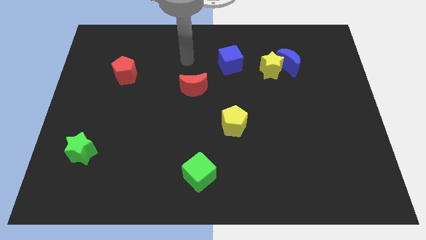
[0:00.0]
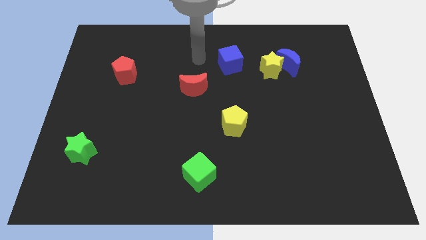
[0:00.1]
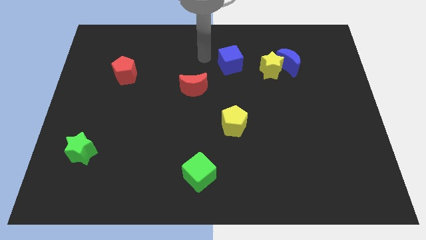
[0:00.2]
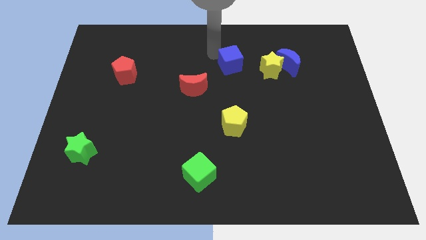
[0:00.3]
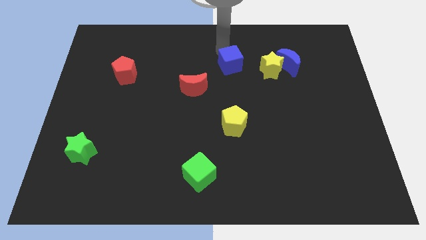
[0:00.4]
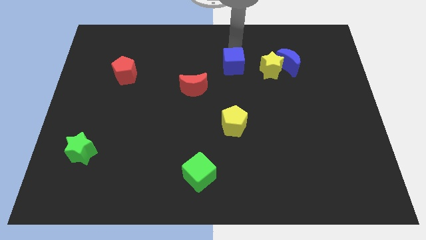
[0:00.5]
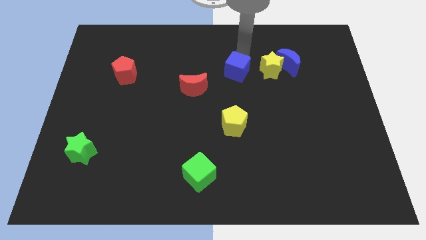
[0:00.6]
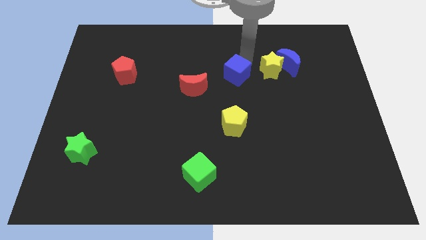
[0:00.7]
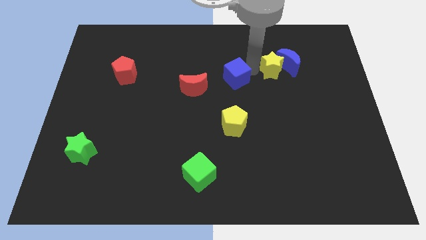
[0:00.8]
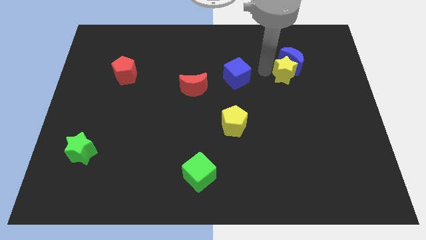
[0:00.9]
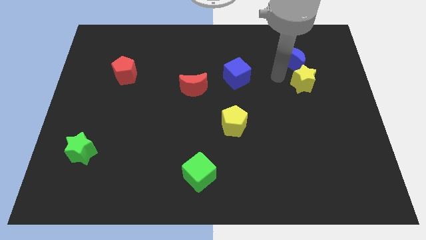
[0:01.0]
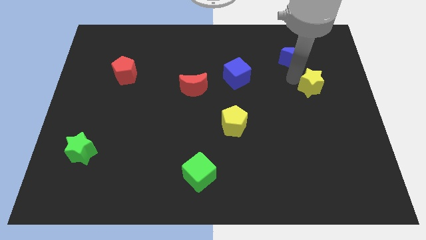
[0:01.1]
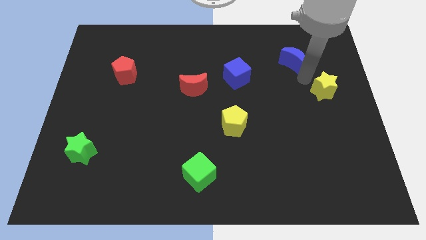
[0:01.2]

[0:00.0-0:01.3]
separate the blue moon from the yellow star

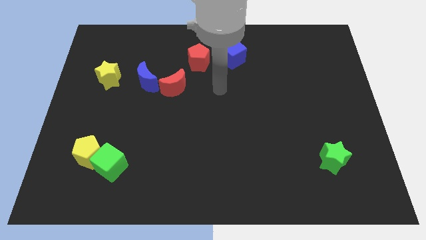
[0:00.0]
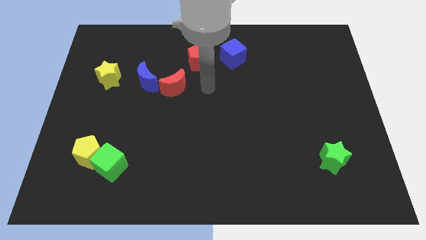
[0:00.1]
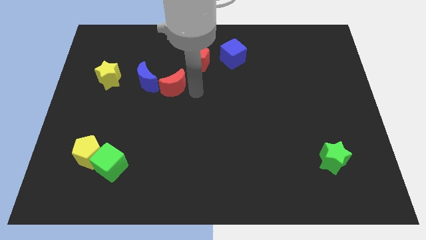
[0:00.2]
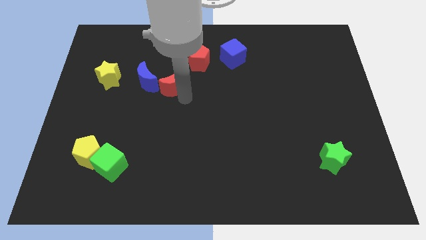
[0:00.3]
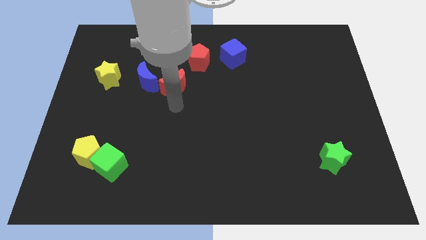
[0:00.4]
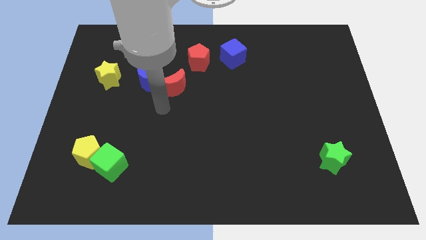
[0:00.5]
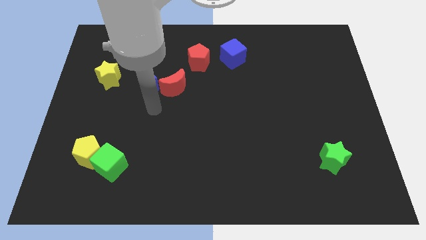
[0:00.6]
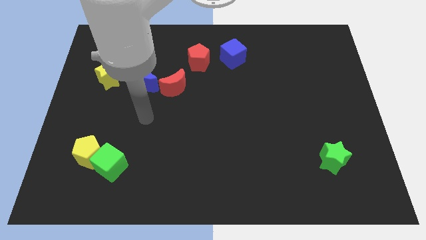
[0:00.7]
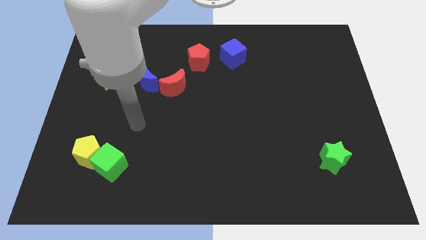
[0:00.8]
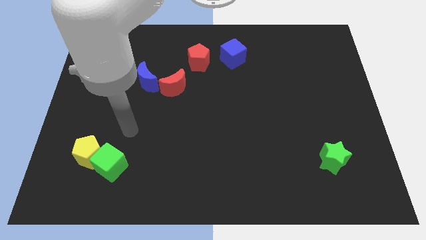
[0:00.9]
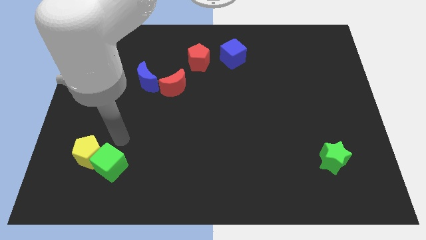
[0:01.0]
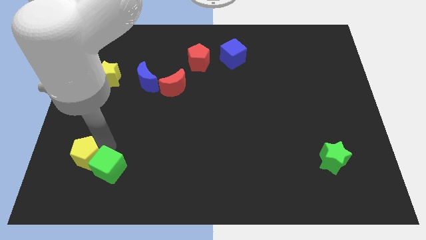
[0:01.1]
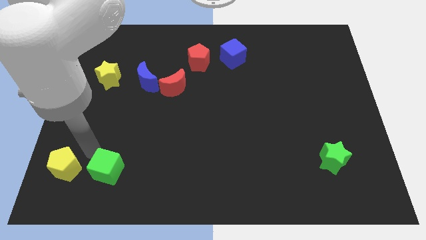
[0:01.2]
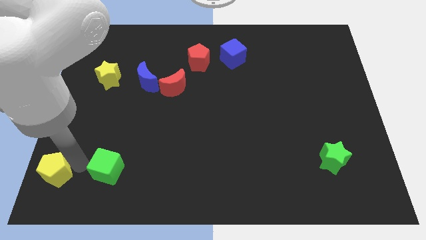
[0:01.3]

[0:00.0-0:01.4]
separate the green cube from the yellow pentagon

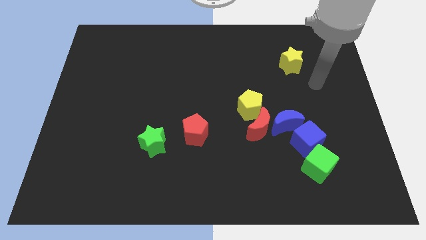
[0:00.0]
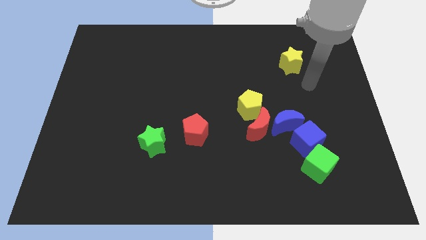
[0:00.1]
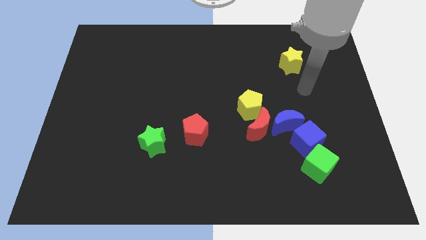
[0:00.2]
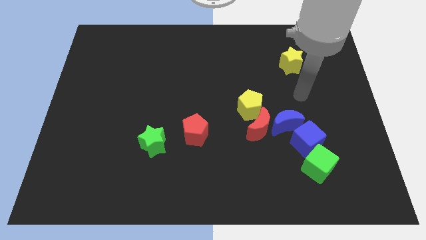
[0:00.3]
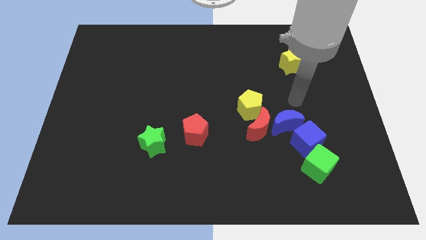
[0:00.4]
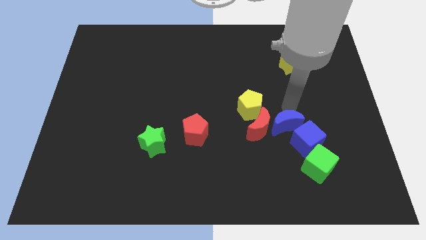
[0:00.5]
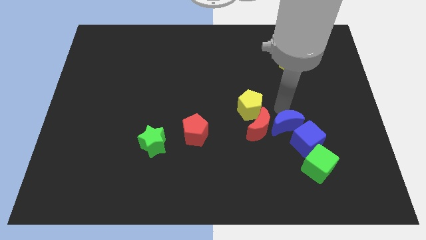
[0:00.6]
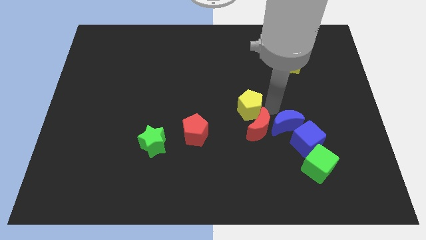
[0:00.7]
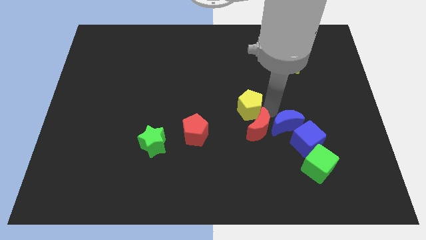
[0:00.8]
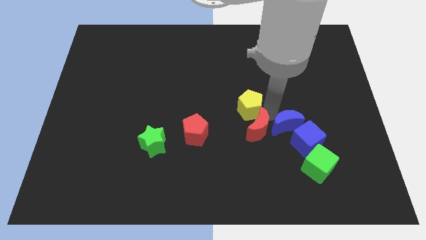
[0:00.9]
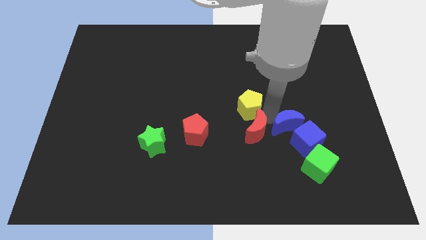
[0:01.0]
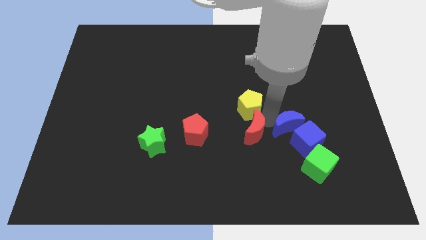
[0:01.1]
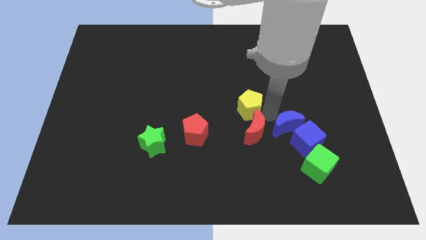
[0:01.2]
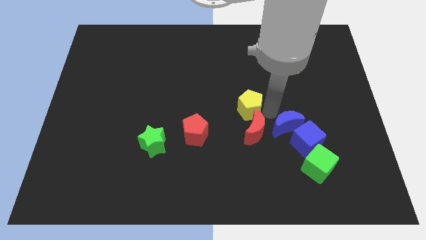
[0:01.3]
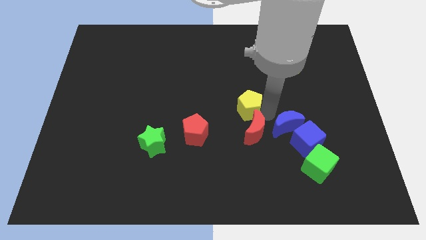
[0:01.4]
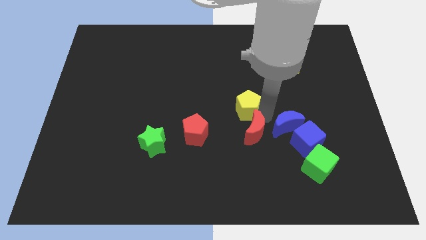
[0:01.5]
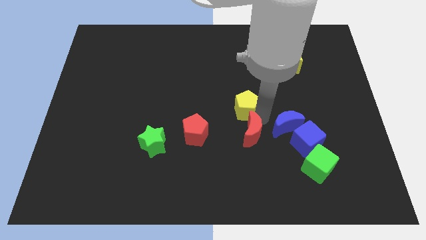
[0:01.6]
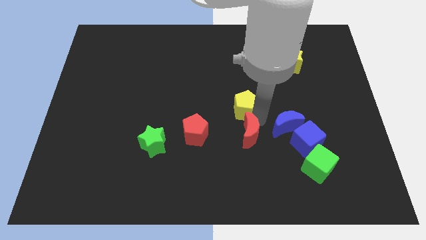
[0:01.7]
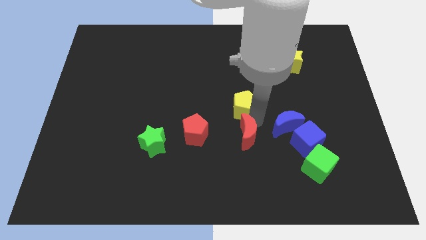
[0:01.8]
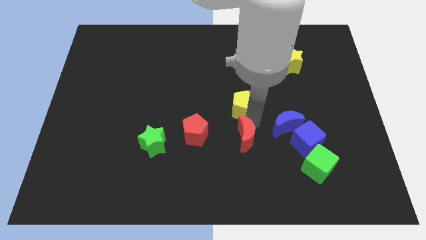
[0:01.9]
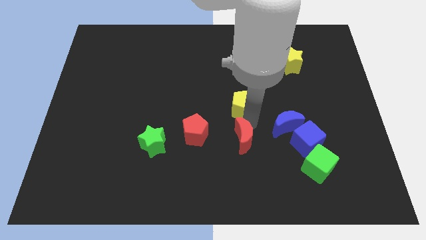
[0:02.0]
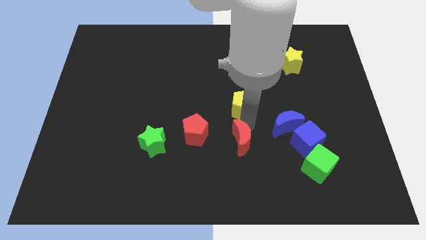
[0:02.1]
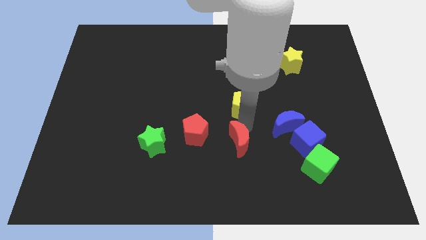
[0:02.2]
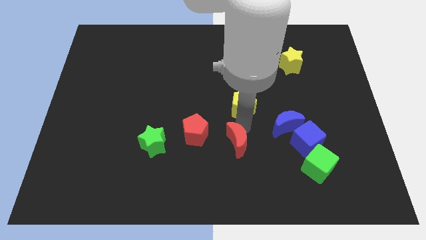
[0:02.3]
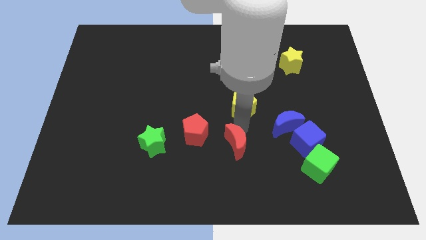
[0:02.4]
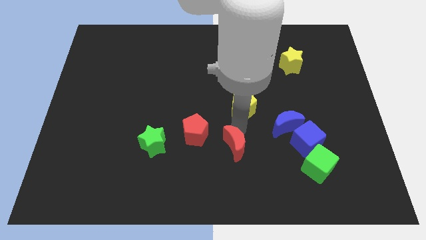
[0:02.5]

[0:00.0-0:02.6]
move the red moon away from the blue moon and yellow pentagon

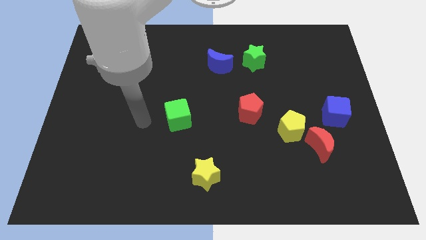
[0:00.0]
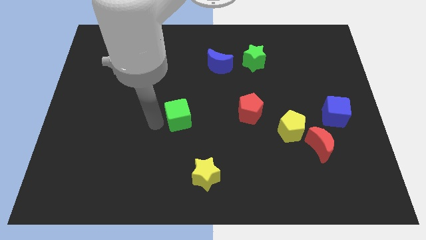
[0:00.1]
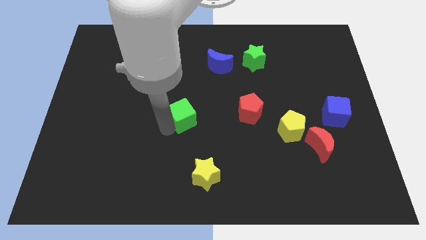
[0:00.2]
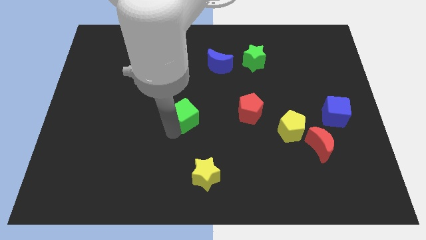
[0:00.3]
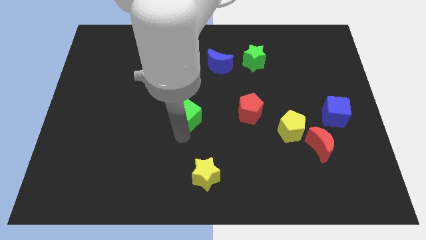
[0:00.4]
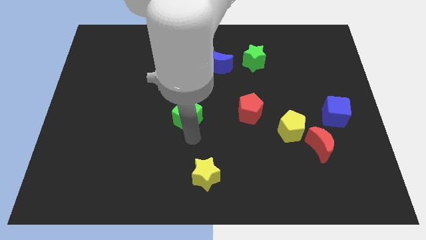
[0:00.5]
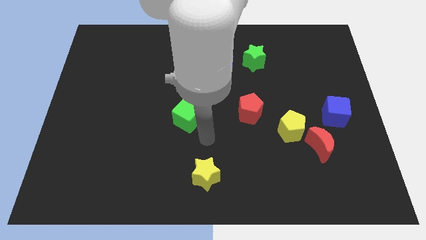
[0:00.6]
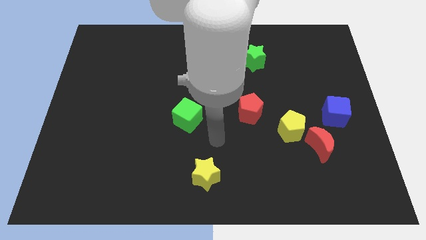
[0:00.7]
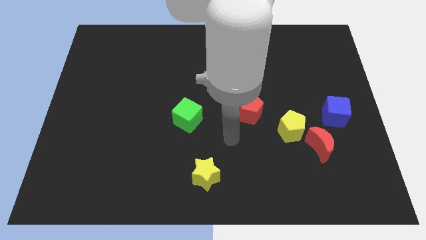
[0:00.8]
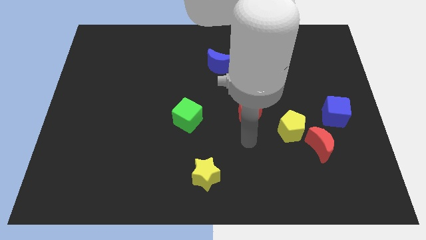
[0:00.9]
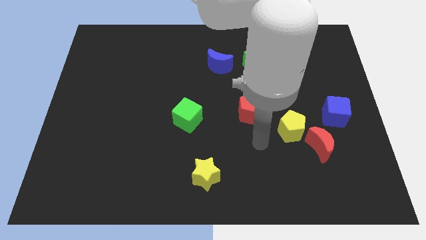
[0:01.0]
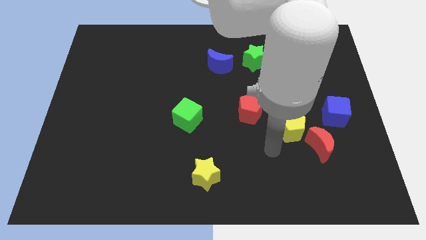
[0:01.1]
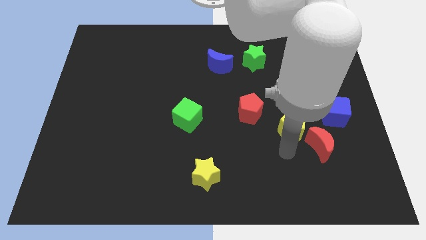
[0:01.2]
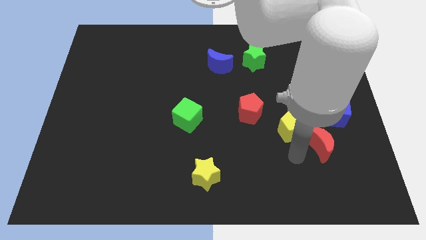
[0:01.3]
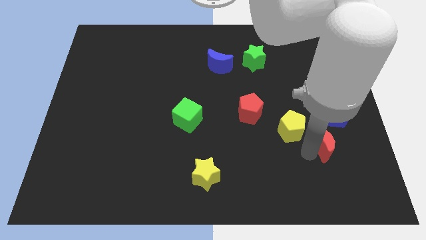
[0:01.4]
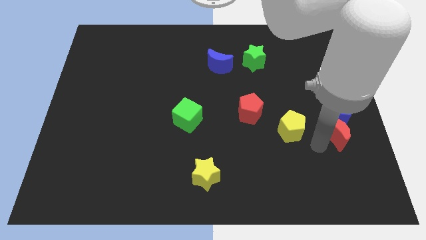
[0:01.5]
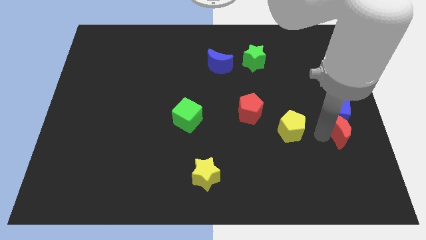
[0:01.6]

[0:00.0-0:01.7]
move the yellow pentagon away from the red moon

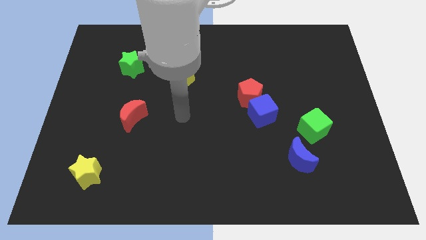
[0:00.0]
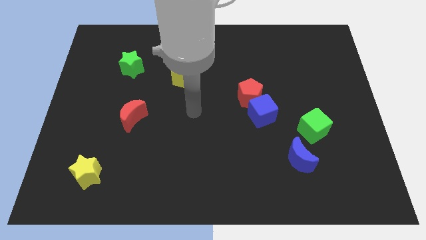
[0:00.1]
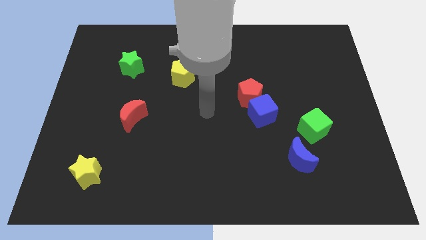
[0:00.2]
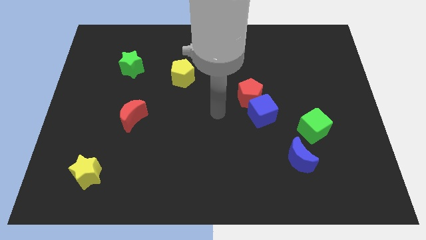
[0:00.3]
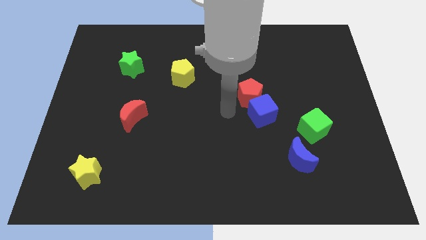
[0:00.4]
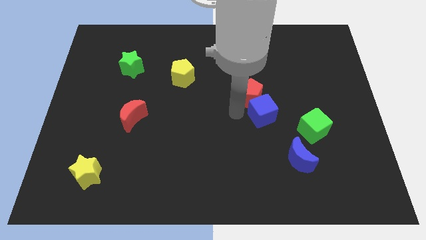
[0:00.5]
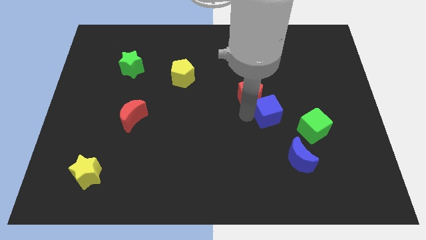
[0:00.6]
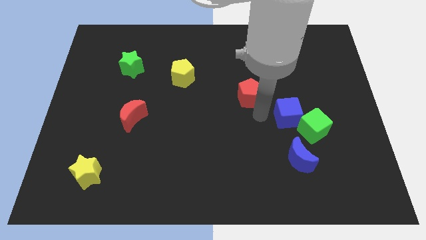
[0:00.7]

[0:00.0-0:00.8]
separate the red pentagon from the blue cube

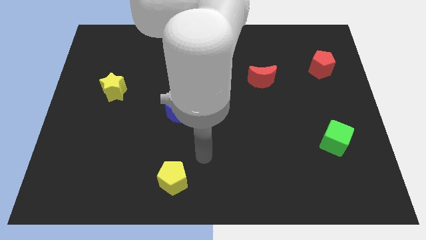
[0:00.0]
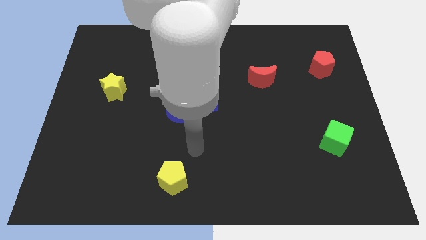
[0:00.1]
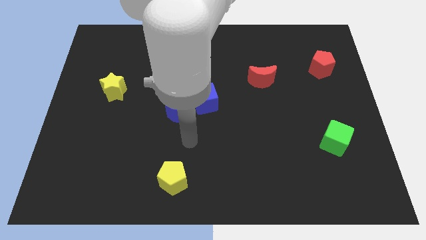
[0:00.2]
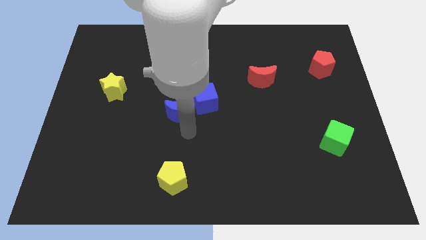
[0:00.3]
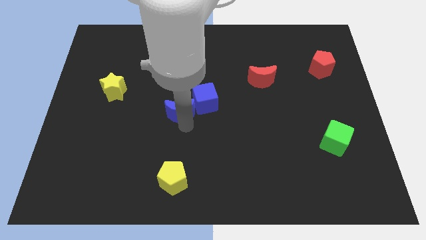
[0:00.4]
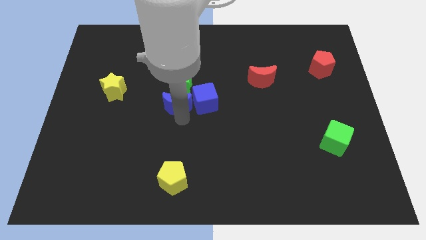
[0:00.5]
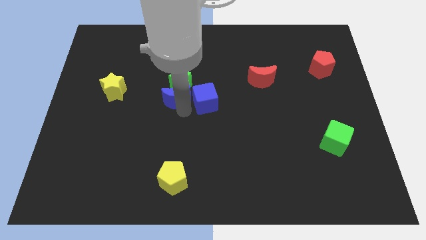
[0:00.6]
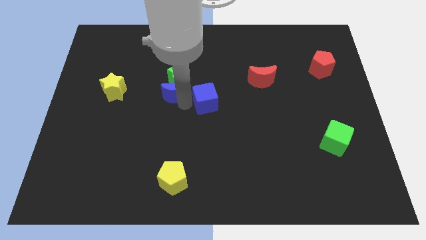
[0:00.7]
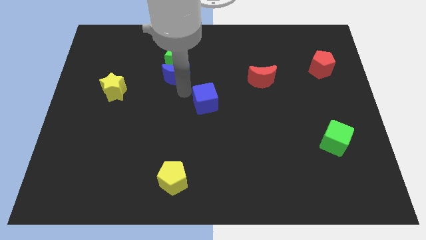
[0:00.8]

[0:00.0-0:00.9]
separate the blue cube from the blue moon and green star

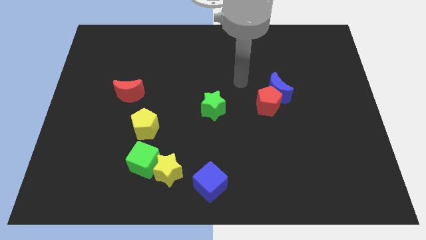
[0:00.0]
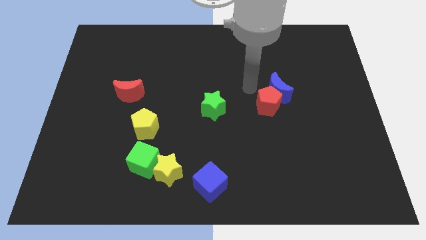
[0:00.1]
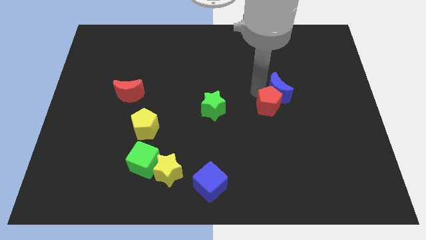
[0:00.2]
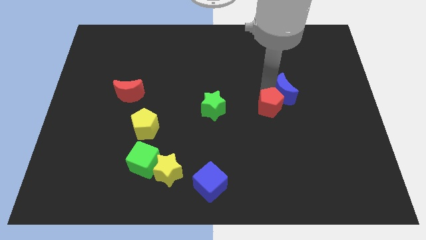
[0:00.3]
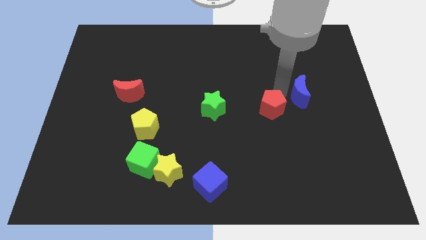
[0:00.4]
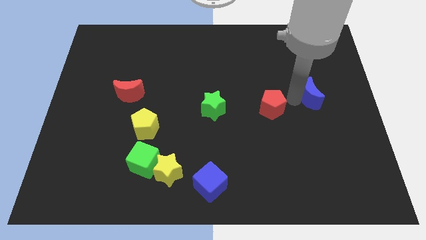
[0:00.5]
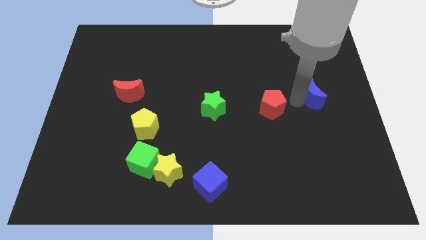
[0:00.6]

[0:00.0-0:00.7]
move the red pentagon away from the blue moon
